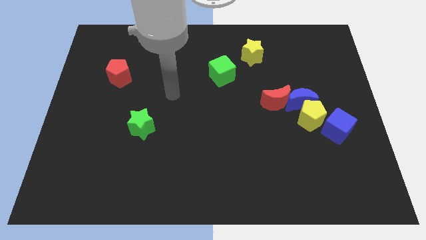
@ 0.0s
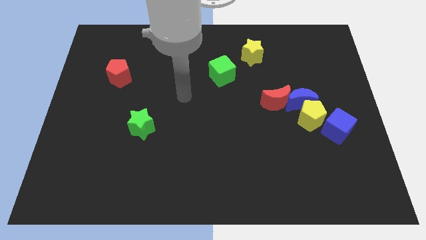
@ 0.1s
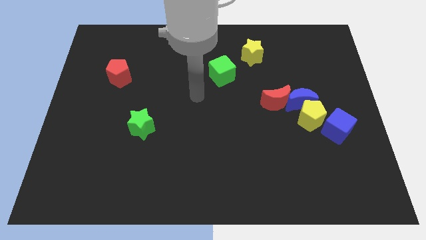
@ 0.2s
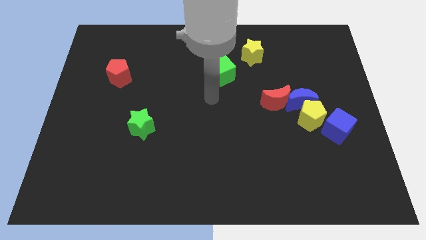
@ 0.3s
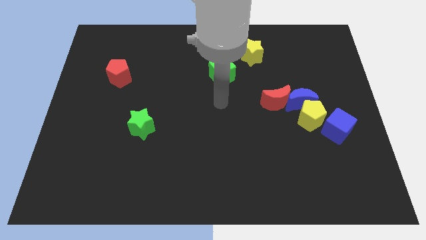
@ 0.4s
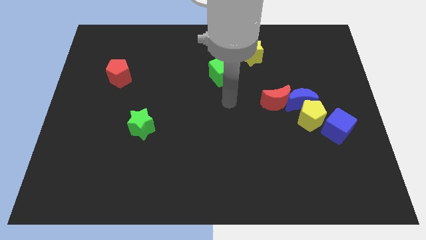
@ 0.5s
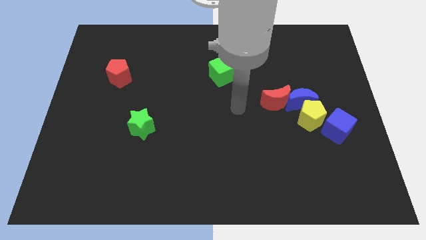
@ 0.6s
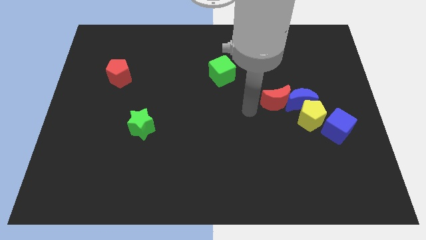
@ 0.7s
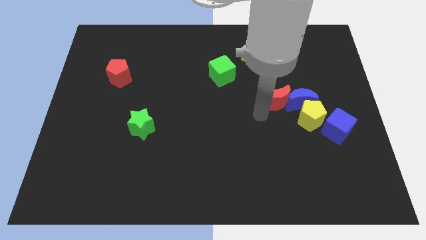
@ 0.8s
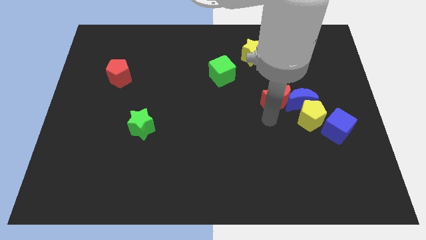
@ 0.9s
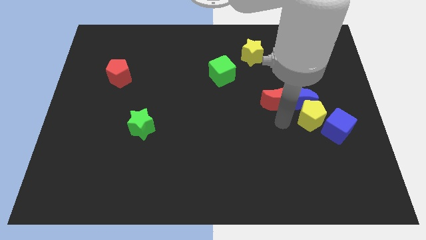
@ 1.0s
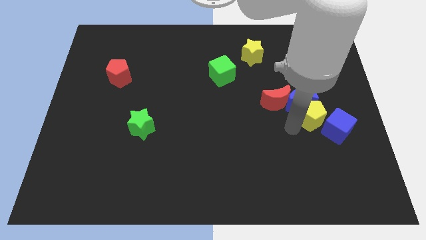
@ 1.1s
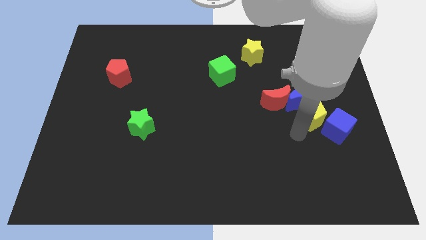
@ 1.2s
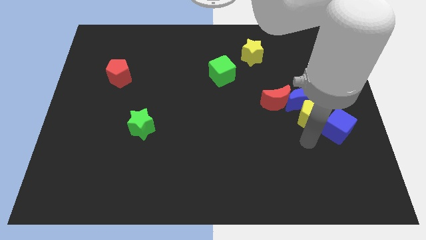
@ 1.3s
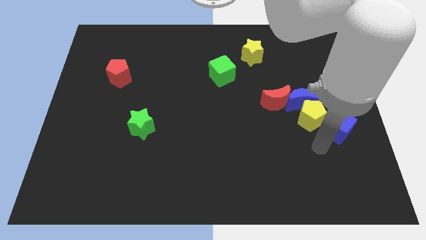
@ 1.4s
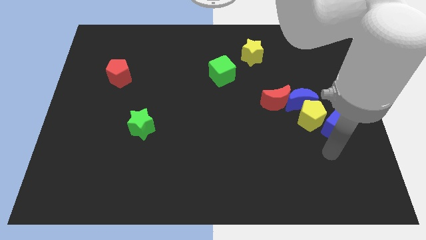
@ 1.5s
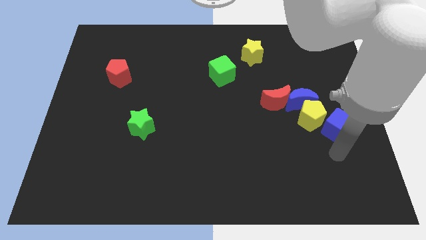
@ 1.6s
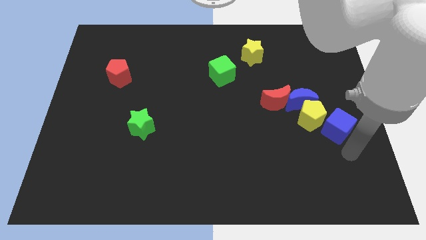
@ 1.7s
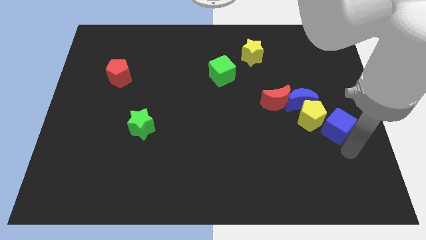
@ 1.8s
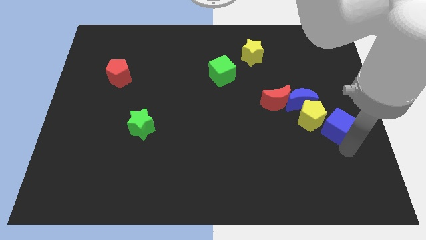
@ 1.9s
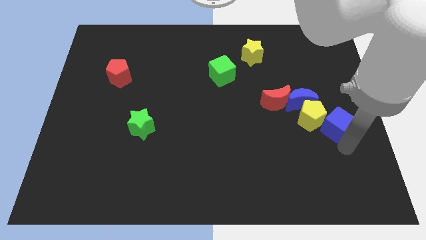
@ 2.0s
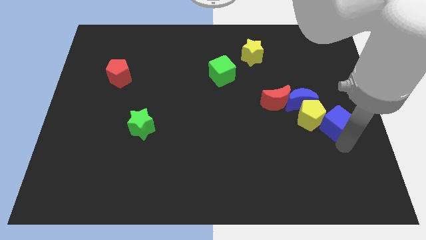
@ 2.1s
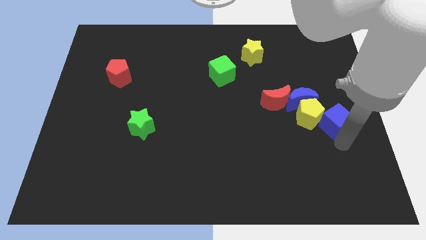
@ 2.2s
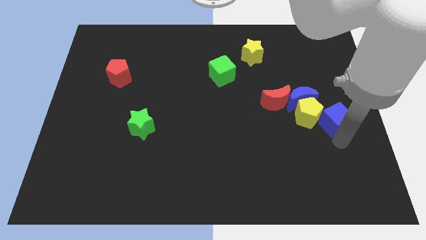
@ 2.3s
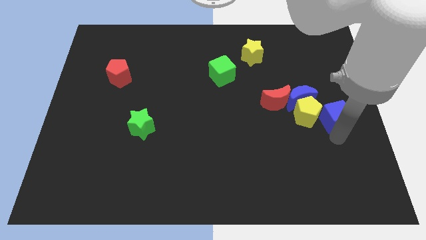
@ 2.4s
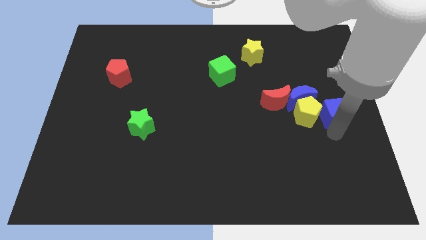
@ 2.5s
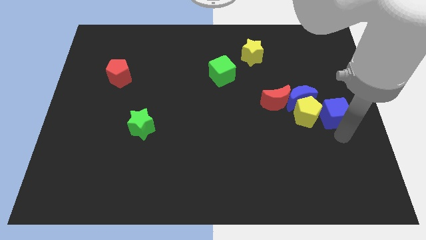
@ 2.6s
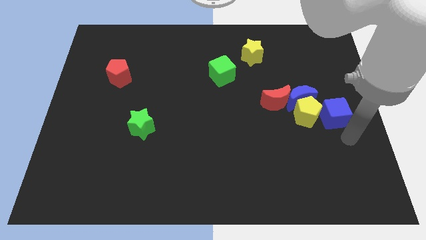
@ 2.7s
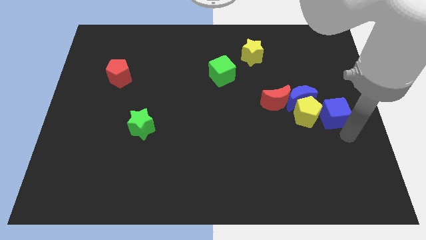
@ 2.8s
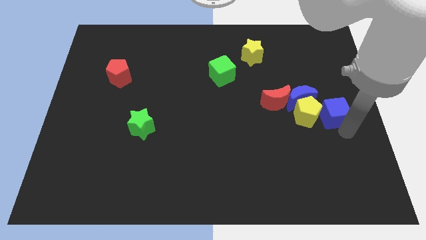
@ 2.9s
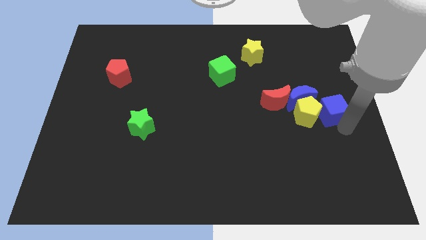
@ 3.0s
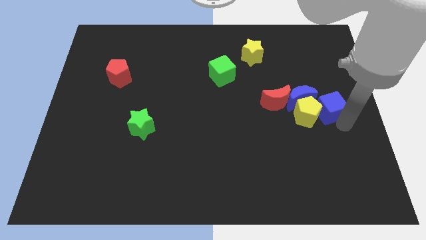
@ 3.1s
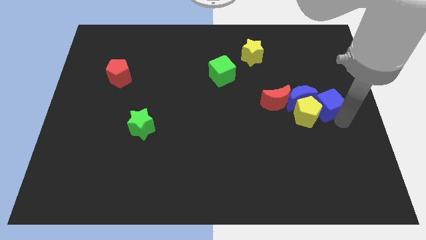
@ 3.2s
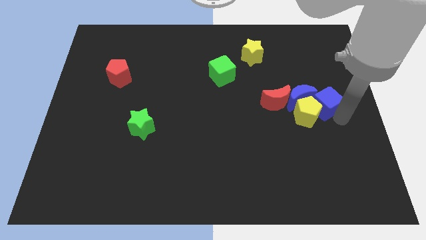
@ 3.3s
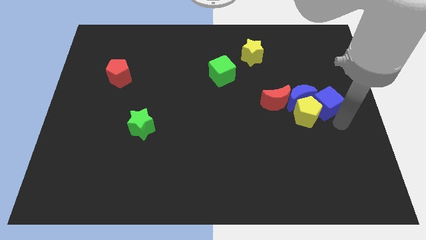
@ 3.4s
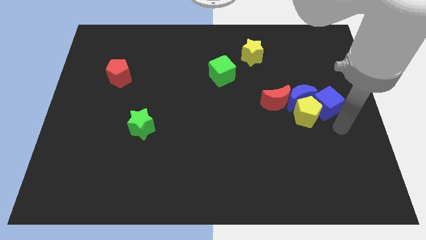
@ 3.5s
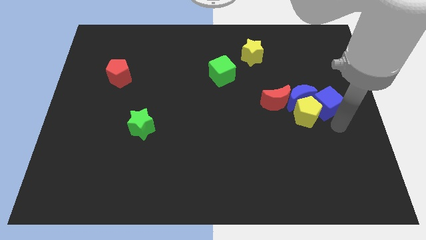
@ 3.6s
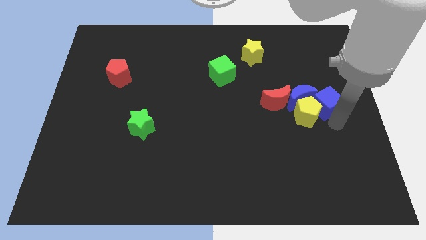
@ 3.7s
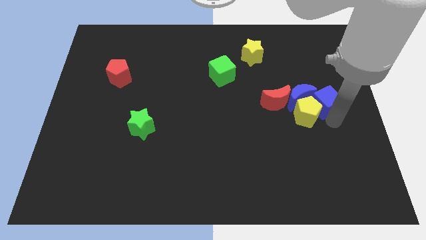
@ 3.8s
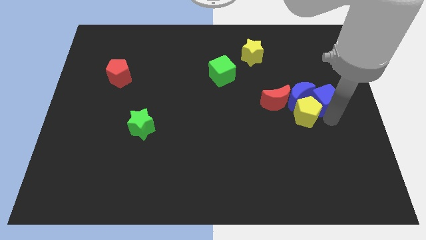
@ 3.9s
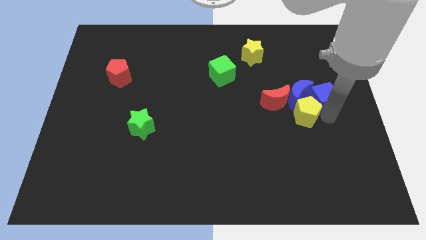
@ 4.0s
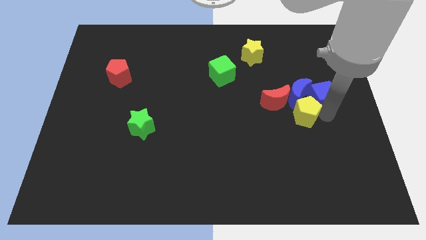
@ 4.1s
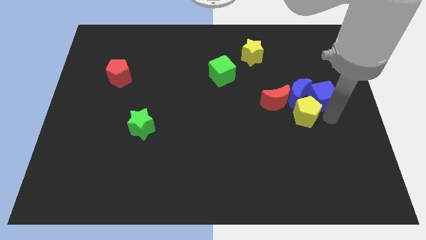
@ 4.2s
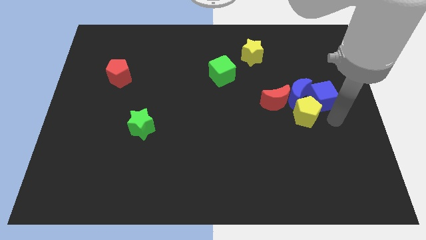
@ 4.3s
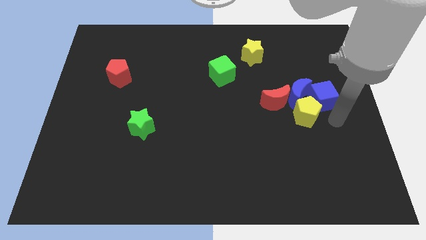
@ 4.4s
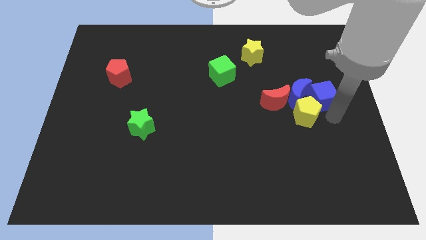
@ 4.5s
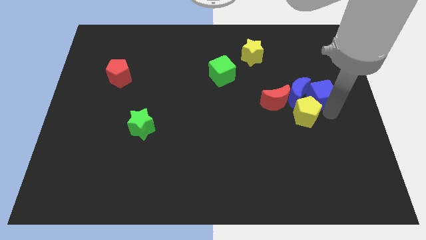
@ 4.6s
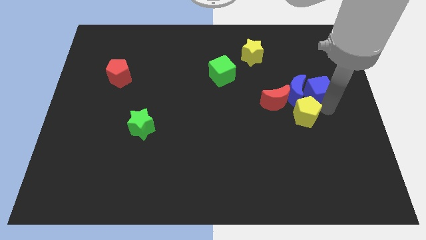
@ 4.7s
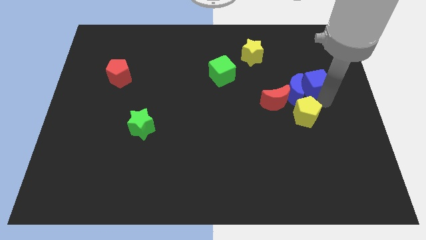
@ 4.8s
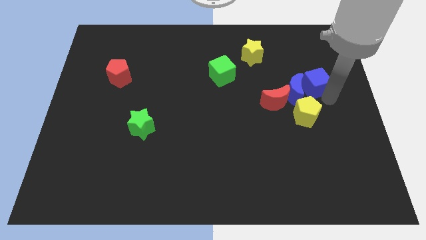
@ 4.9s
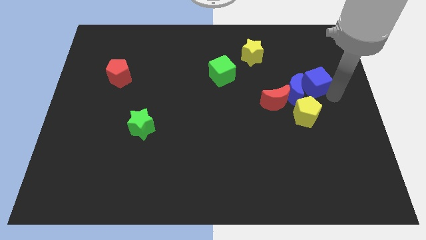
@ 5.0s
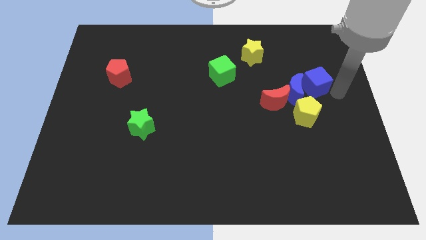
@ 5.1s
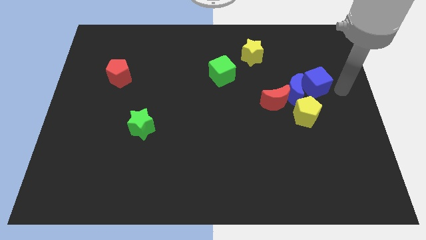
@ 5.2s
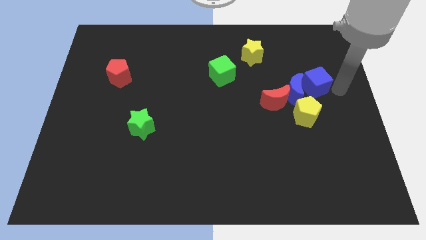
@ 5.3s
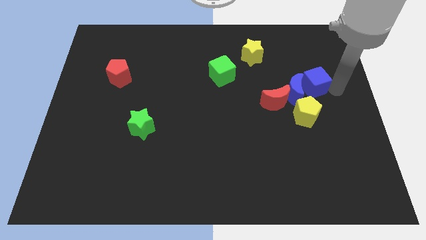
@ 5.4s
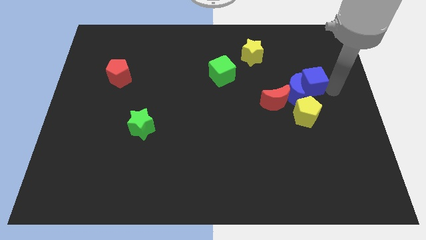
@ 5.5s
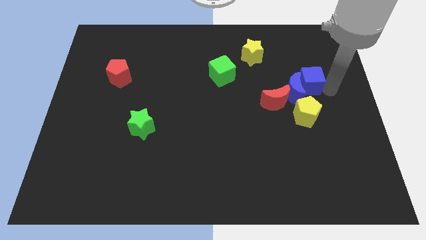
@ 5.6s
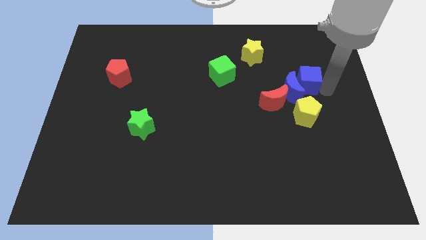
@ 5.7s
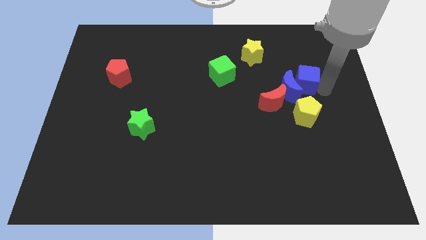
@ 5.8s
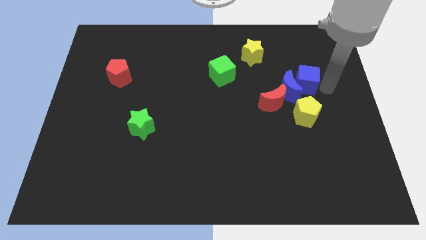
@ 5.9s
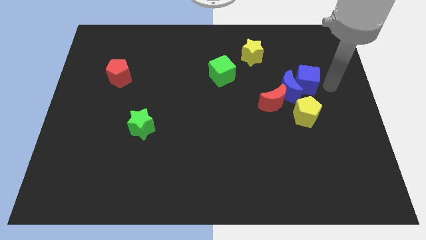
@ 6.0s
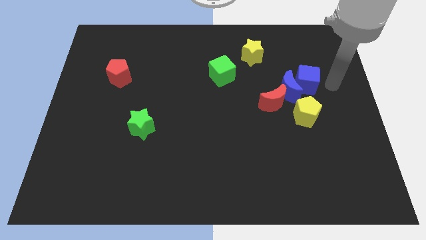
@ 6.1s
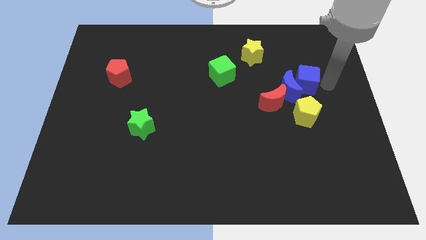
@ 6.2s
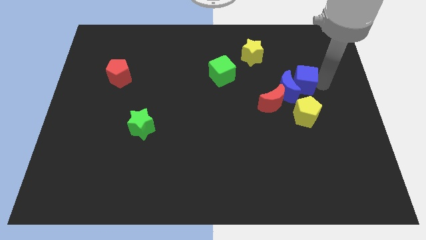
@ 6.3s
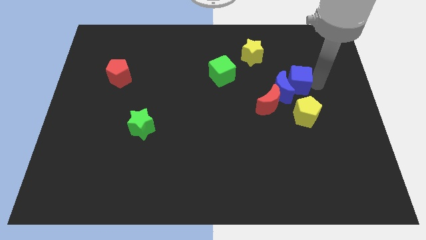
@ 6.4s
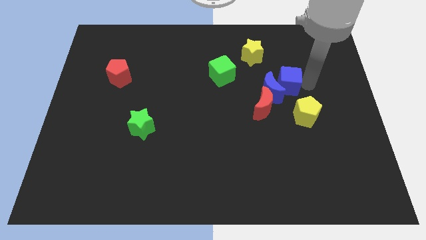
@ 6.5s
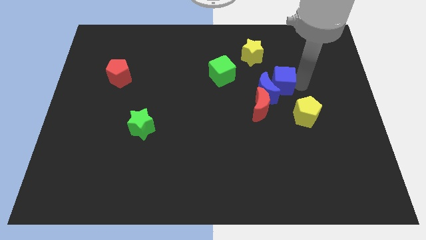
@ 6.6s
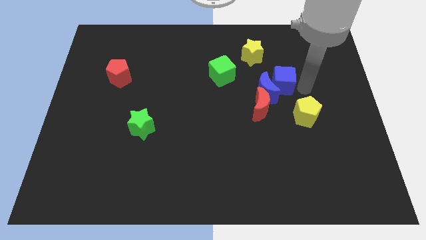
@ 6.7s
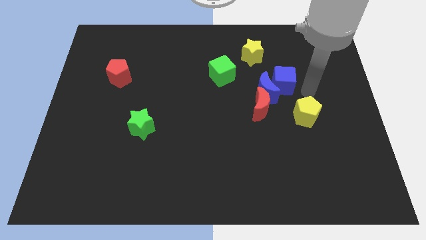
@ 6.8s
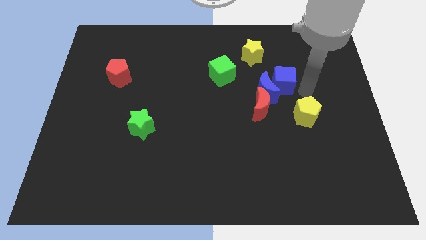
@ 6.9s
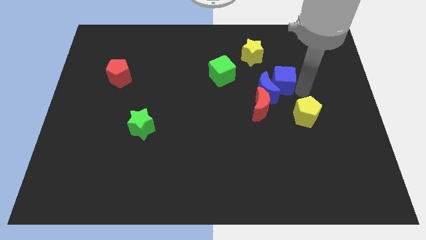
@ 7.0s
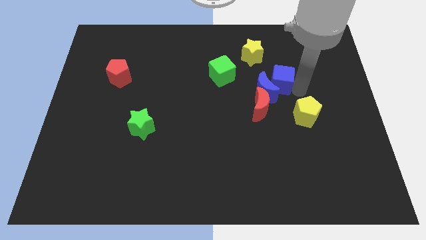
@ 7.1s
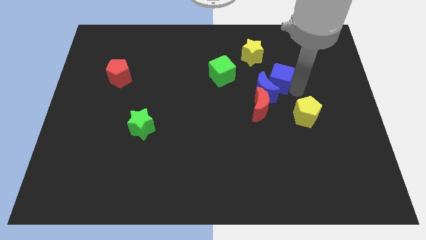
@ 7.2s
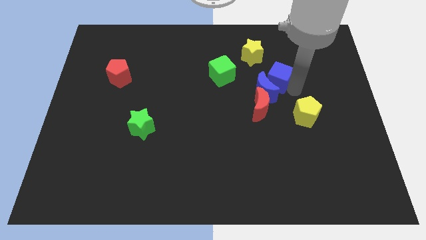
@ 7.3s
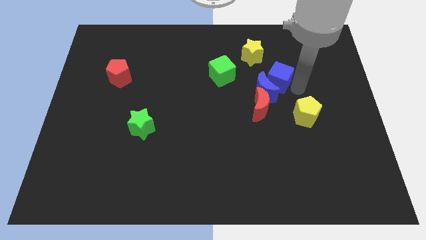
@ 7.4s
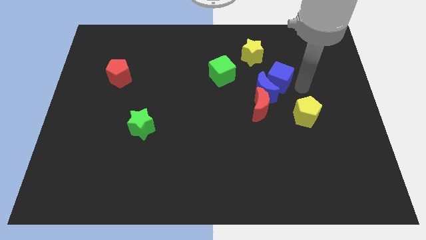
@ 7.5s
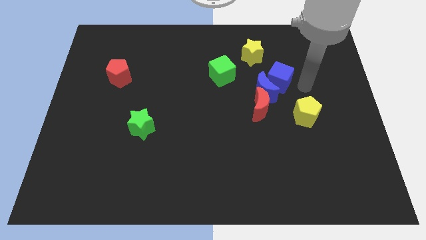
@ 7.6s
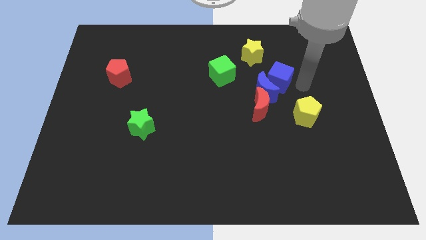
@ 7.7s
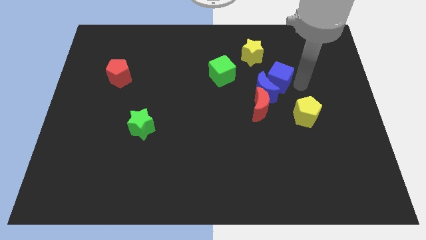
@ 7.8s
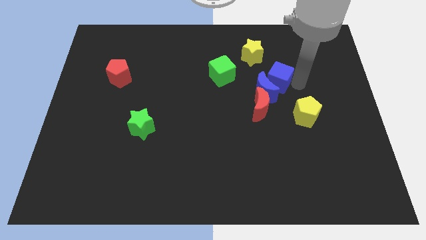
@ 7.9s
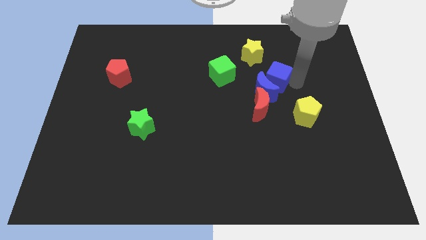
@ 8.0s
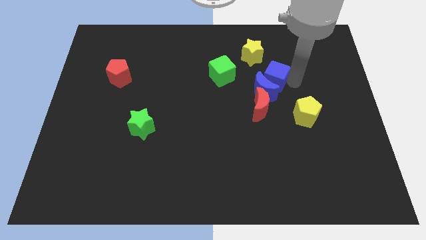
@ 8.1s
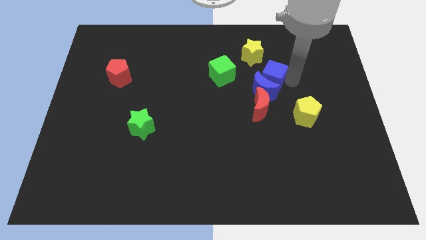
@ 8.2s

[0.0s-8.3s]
push the blue cube up and left
